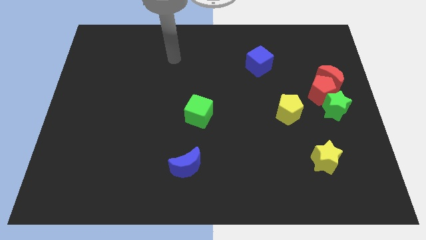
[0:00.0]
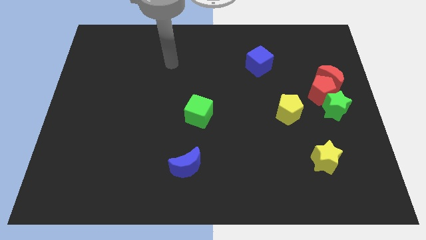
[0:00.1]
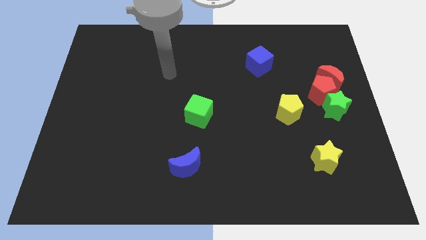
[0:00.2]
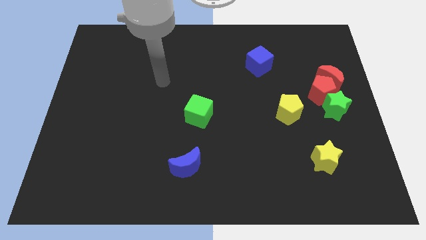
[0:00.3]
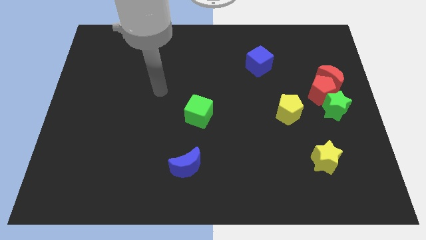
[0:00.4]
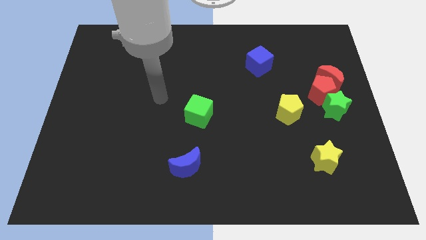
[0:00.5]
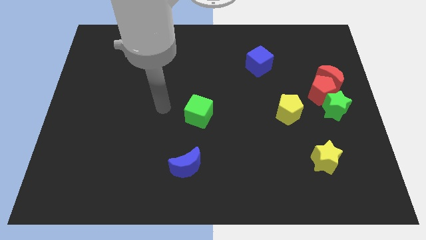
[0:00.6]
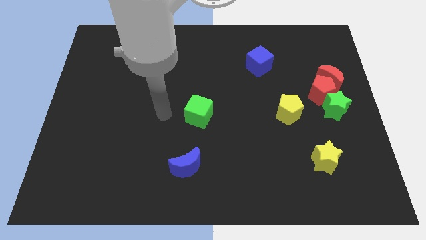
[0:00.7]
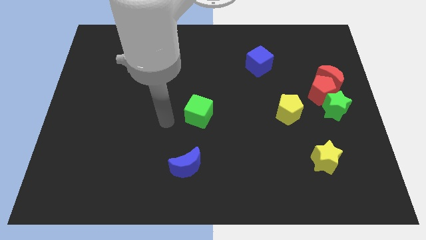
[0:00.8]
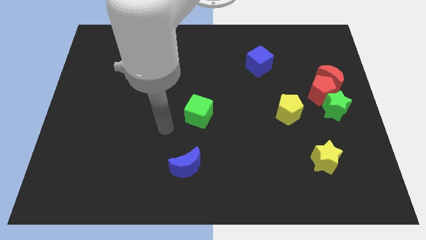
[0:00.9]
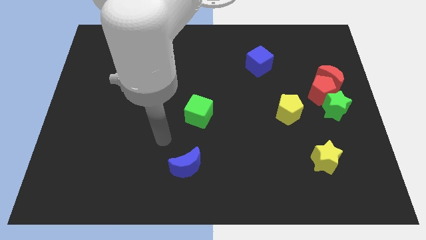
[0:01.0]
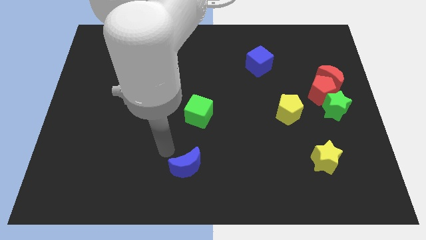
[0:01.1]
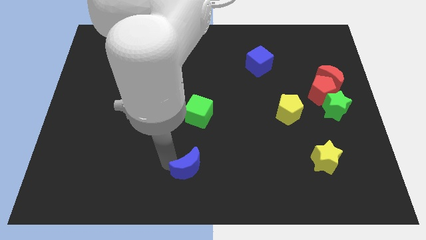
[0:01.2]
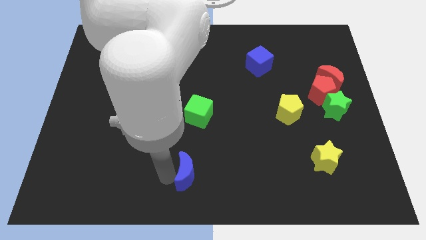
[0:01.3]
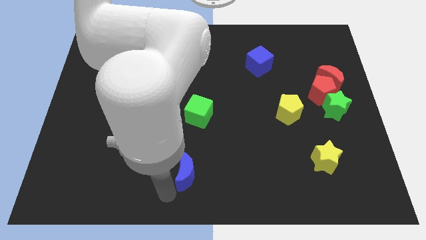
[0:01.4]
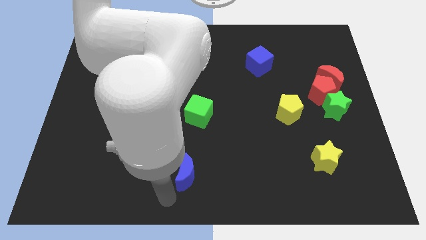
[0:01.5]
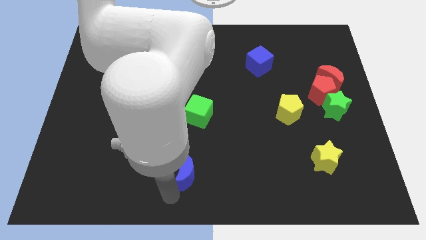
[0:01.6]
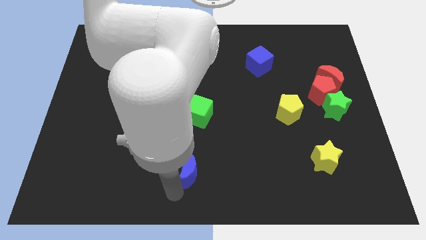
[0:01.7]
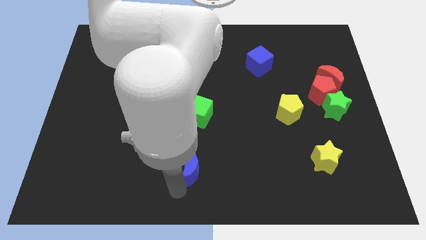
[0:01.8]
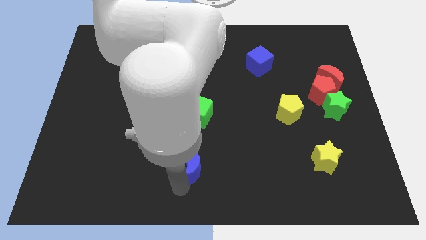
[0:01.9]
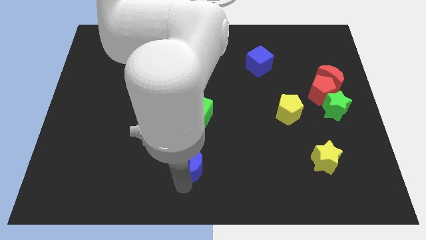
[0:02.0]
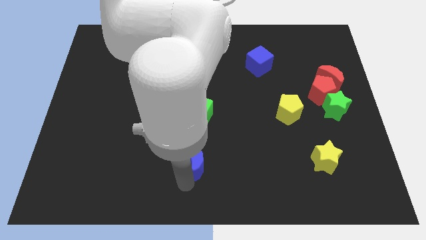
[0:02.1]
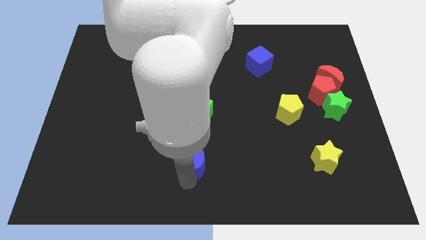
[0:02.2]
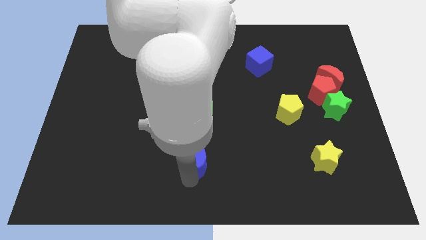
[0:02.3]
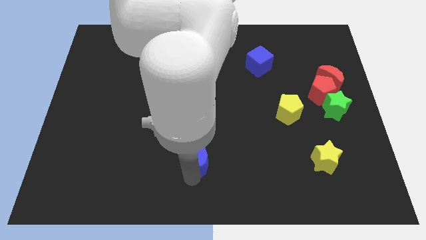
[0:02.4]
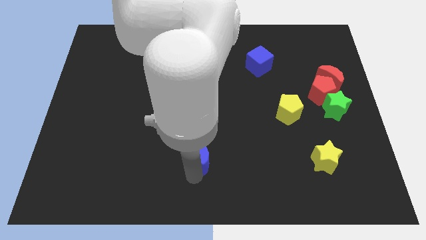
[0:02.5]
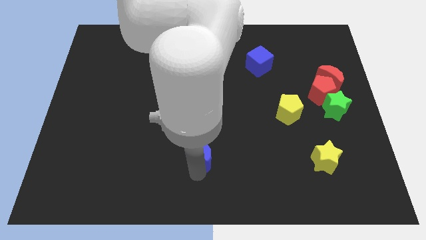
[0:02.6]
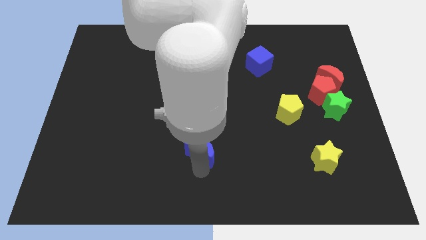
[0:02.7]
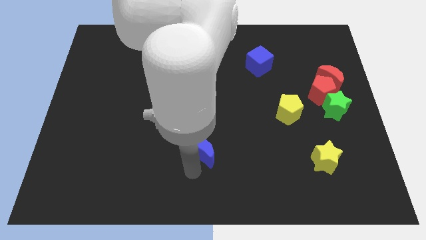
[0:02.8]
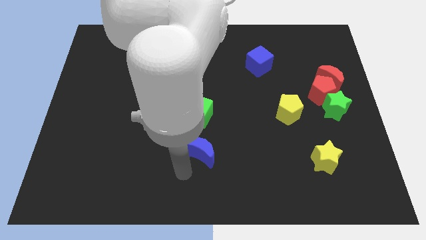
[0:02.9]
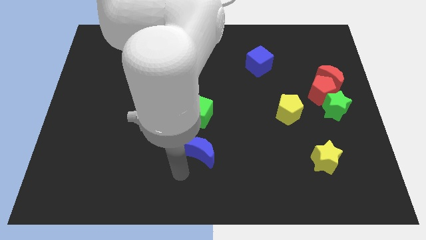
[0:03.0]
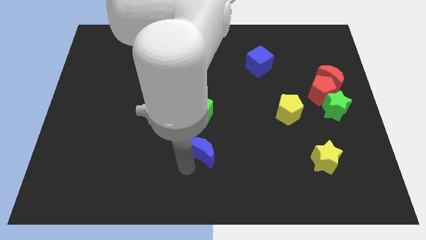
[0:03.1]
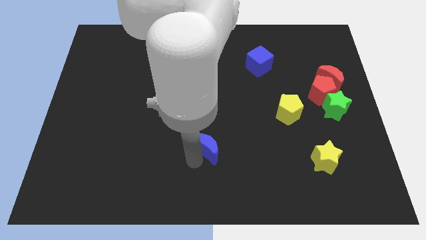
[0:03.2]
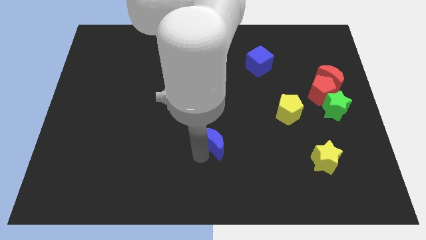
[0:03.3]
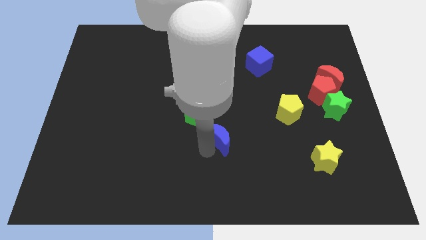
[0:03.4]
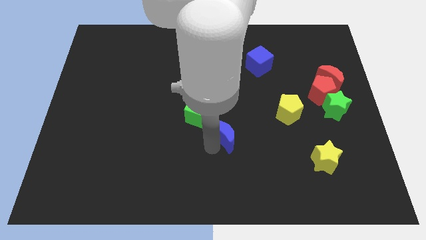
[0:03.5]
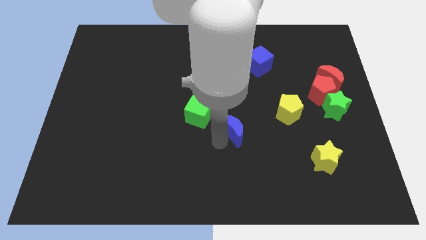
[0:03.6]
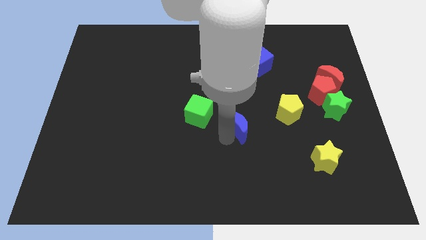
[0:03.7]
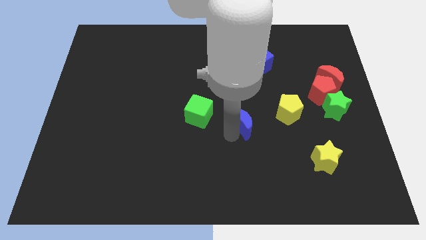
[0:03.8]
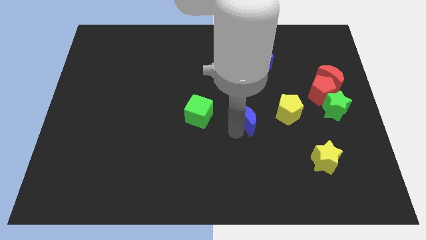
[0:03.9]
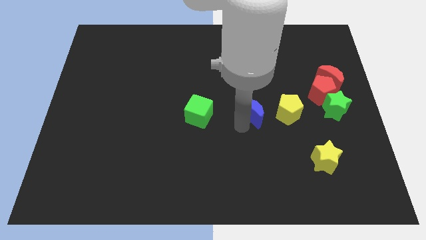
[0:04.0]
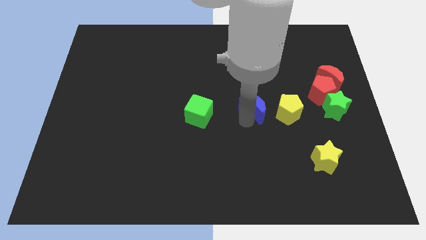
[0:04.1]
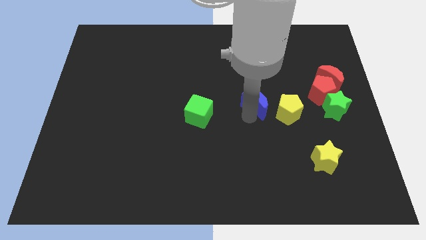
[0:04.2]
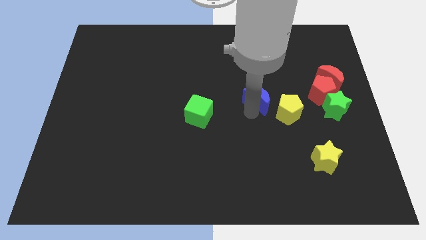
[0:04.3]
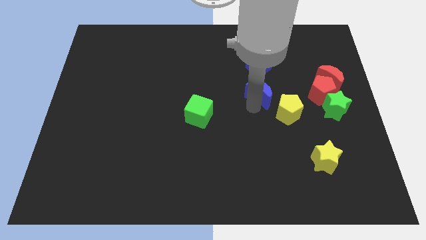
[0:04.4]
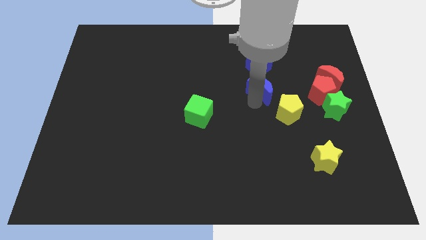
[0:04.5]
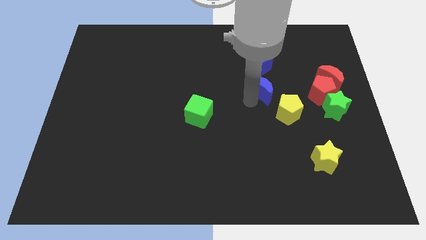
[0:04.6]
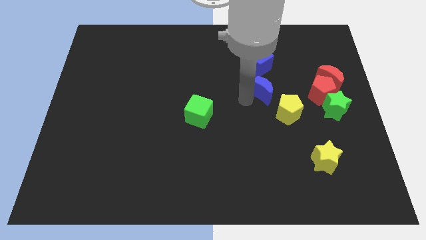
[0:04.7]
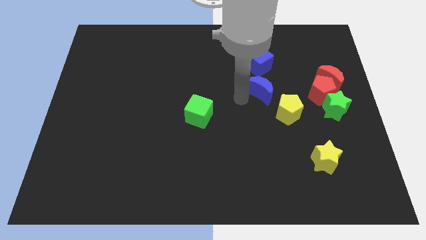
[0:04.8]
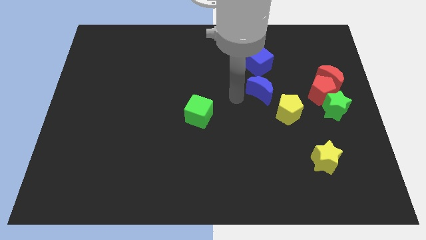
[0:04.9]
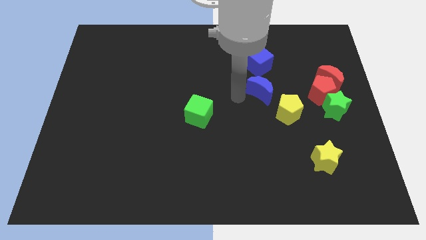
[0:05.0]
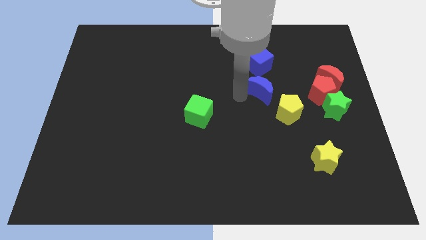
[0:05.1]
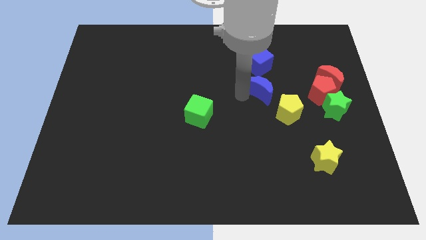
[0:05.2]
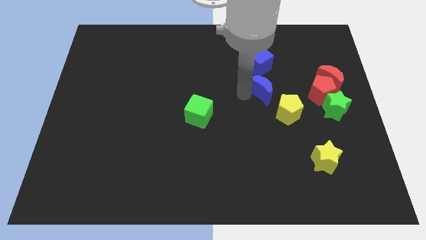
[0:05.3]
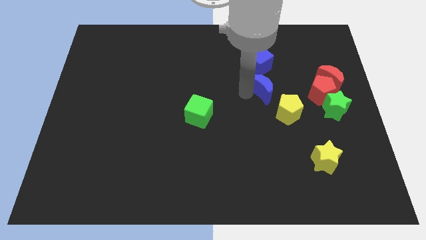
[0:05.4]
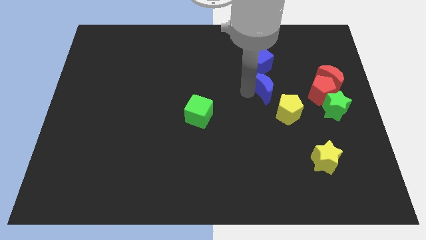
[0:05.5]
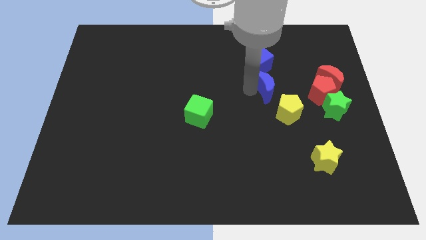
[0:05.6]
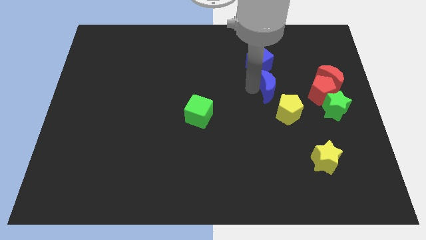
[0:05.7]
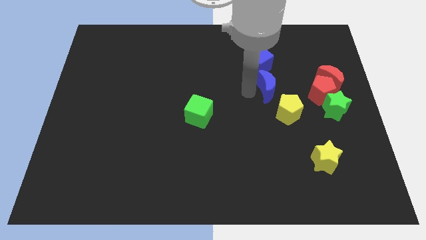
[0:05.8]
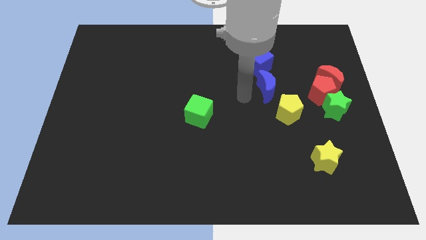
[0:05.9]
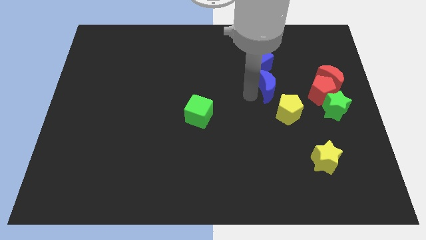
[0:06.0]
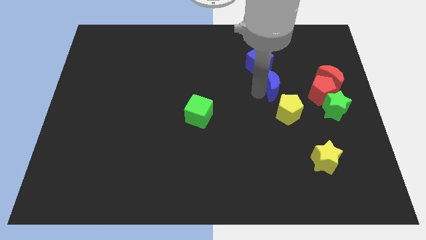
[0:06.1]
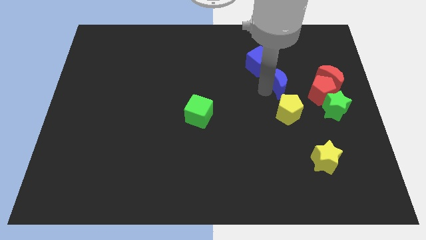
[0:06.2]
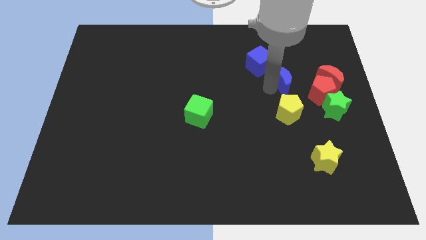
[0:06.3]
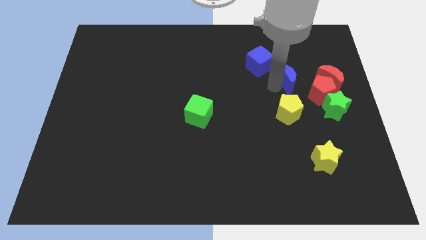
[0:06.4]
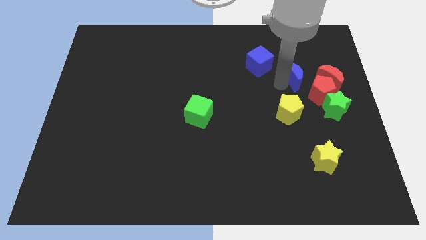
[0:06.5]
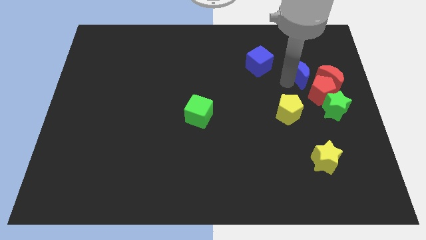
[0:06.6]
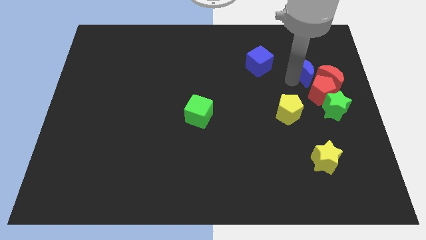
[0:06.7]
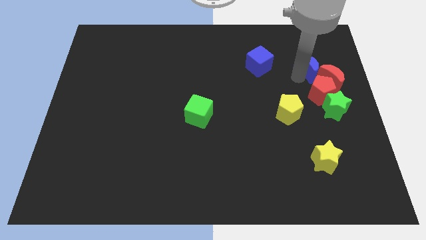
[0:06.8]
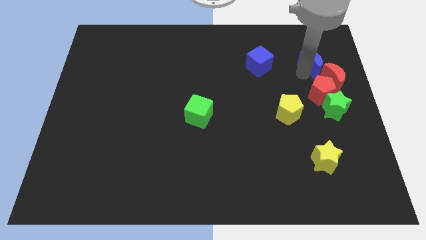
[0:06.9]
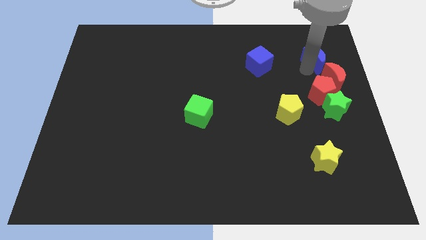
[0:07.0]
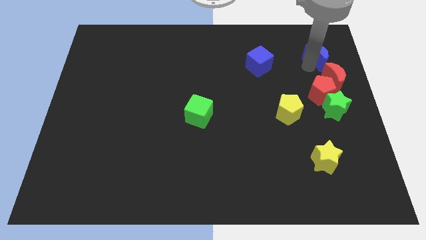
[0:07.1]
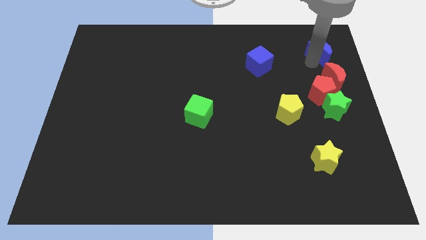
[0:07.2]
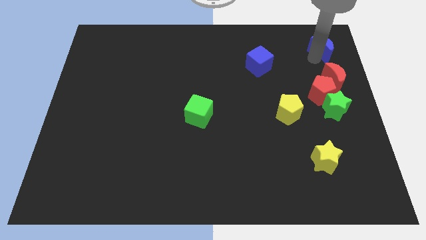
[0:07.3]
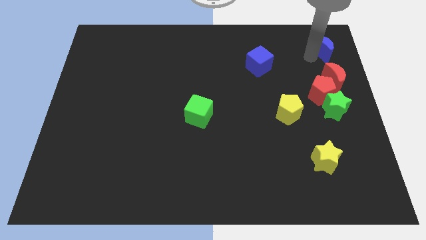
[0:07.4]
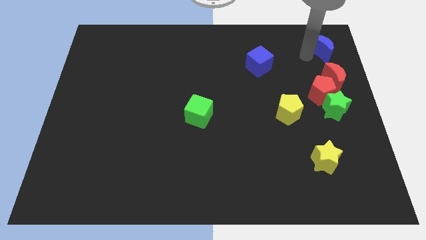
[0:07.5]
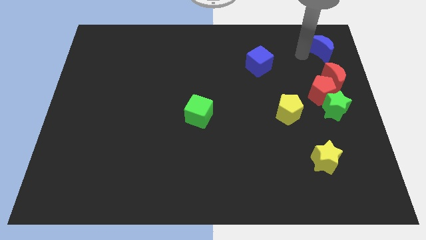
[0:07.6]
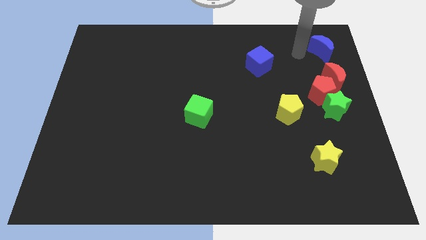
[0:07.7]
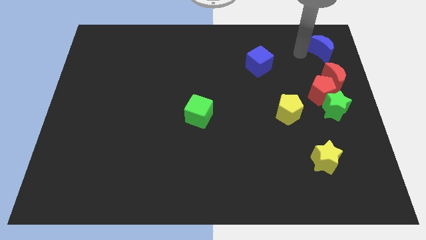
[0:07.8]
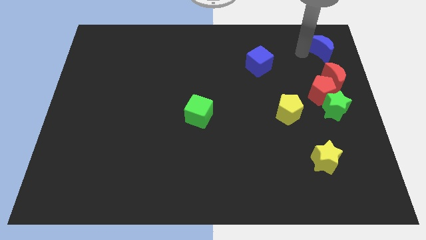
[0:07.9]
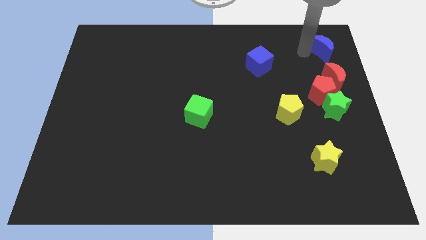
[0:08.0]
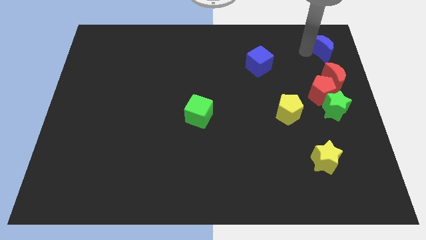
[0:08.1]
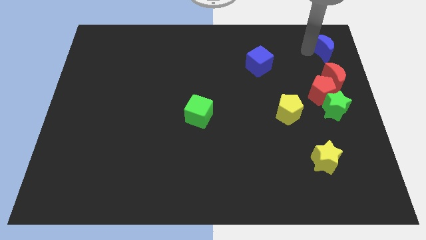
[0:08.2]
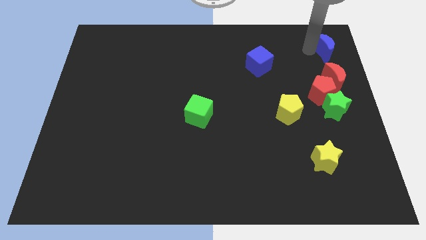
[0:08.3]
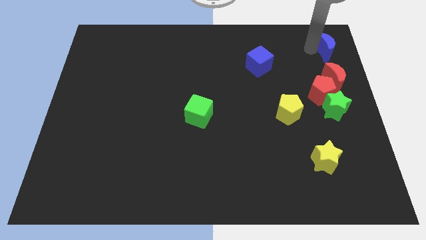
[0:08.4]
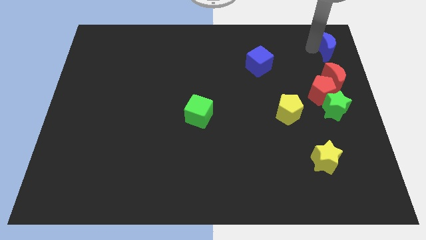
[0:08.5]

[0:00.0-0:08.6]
put the blue moon to the upper right corner
